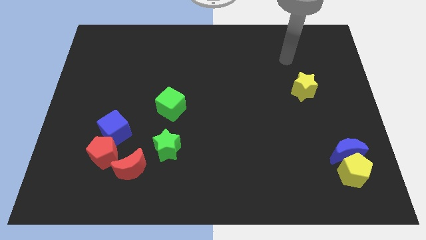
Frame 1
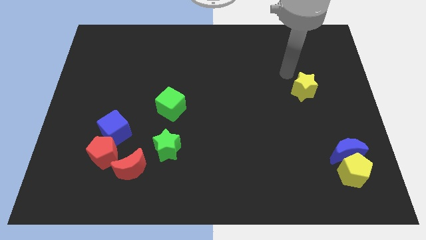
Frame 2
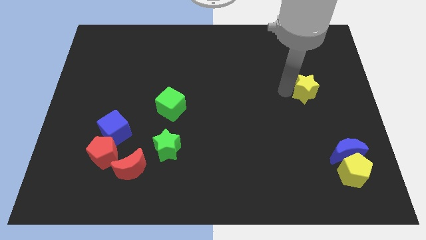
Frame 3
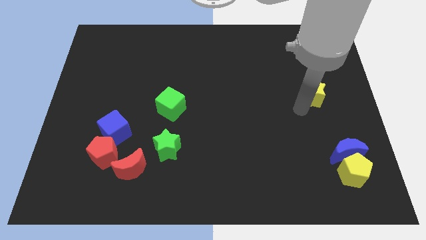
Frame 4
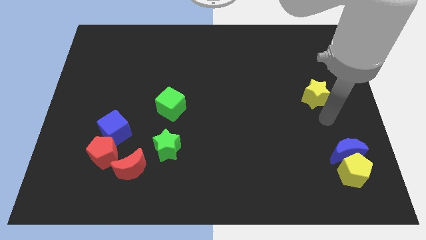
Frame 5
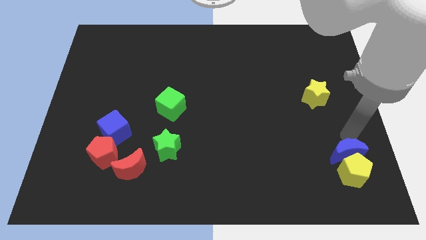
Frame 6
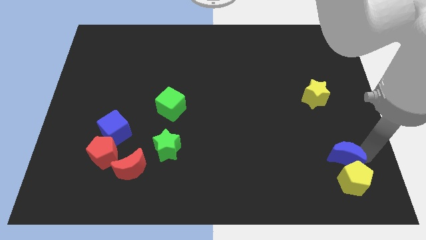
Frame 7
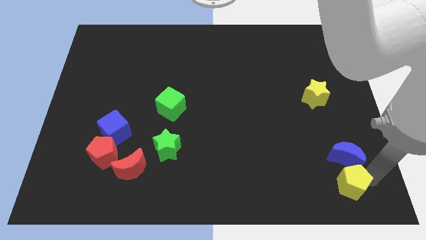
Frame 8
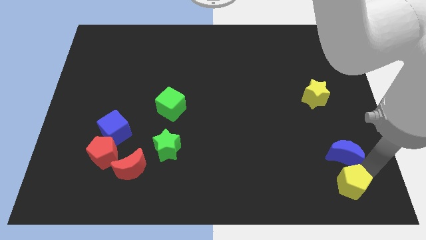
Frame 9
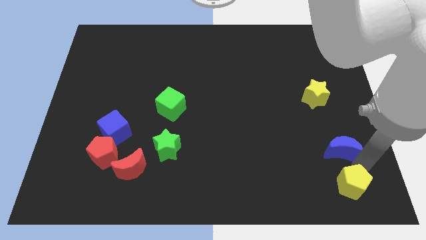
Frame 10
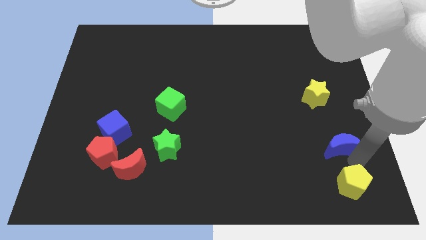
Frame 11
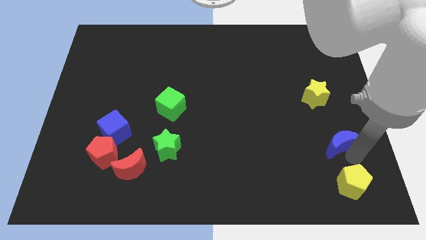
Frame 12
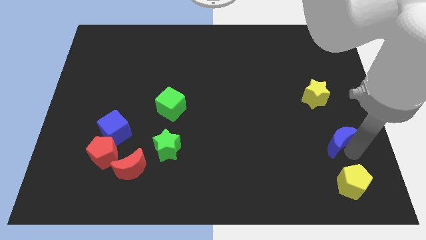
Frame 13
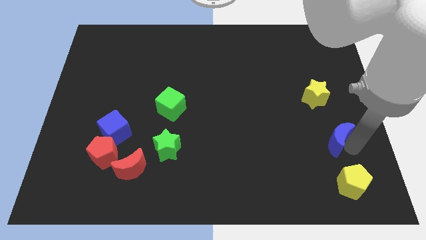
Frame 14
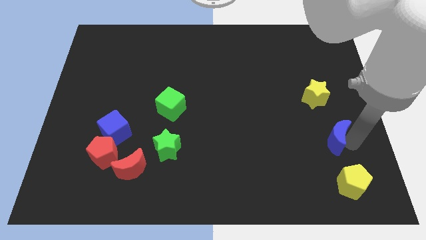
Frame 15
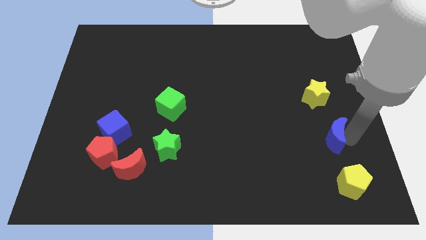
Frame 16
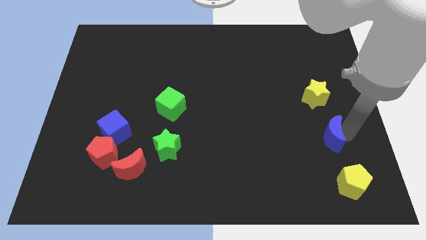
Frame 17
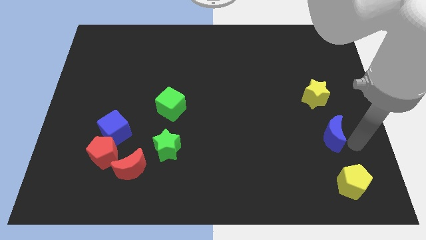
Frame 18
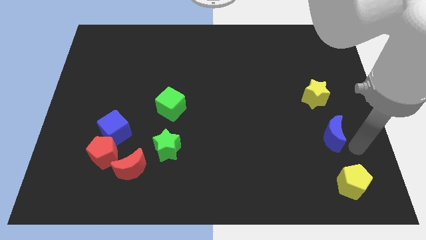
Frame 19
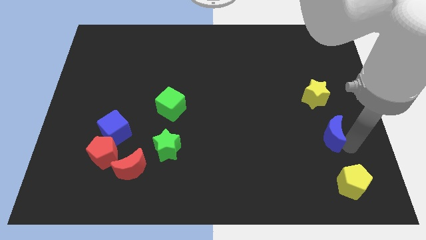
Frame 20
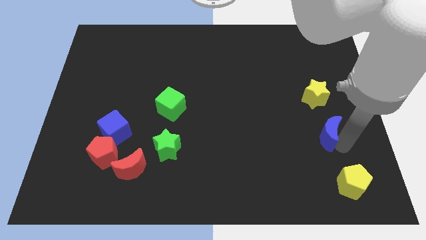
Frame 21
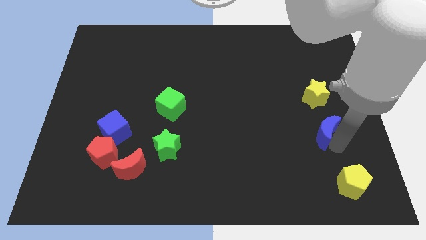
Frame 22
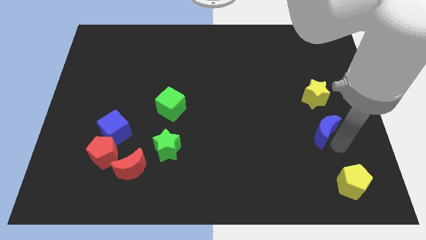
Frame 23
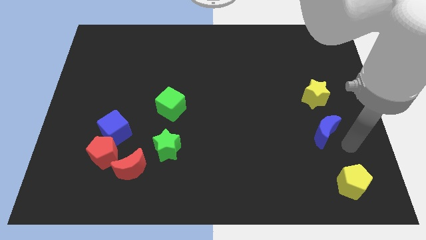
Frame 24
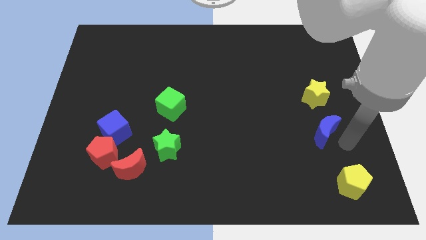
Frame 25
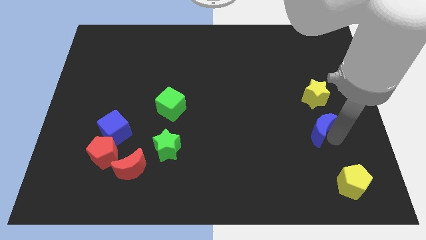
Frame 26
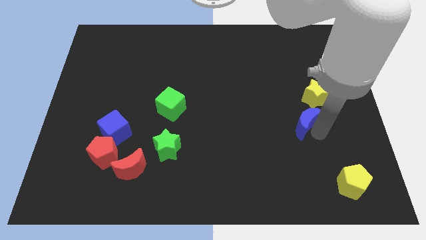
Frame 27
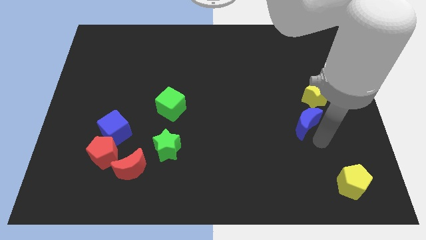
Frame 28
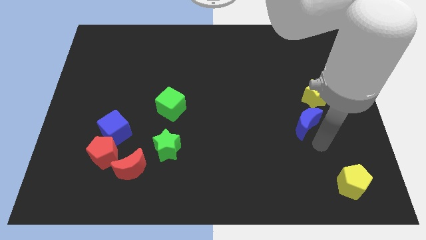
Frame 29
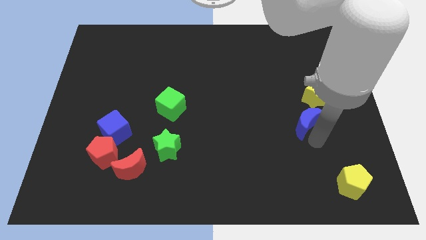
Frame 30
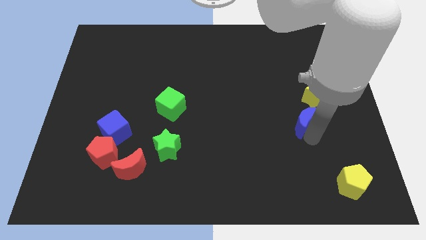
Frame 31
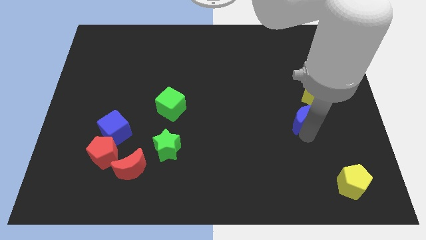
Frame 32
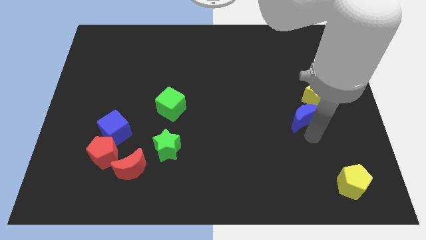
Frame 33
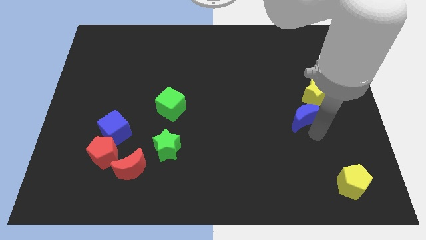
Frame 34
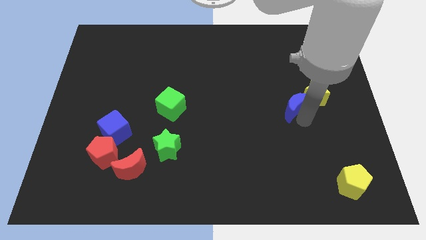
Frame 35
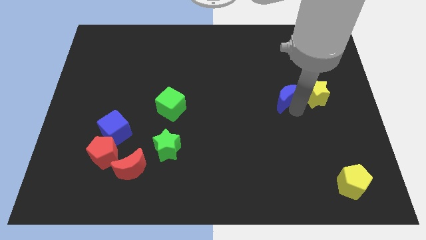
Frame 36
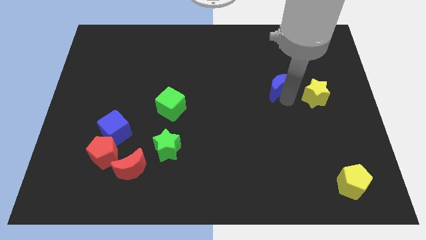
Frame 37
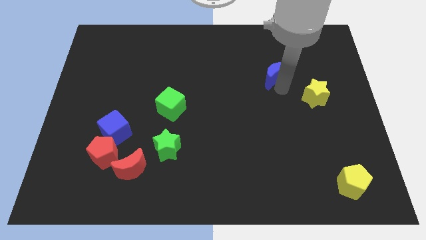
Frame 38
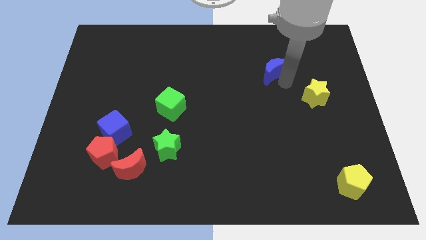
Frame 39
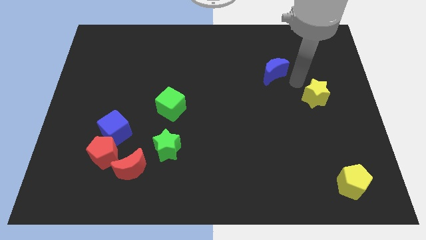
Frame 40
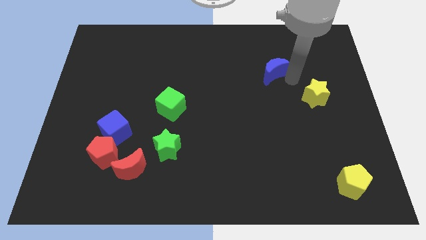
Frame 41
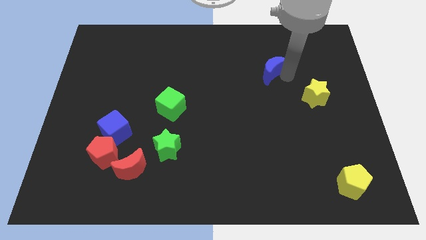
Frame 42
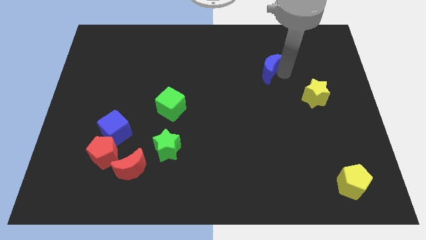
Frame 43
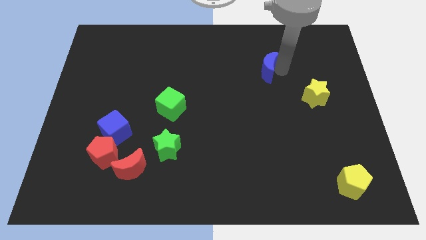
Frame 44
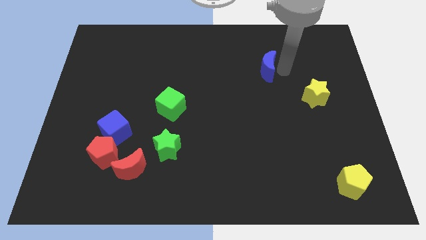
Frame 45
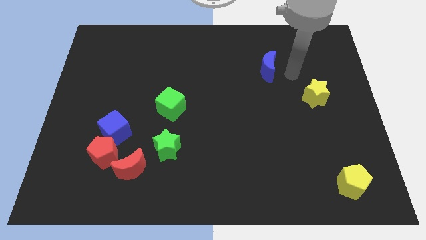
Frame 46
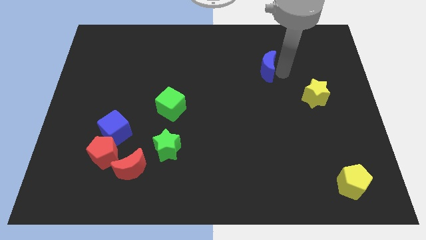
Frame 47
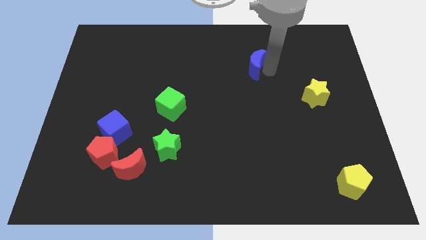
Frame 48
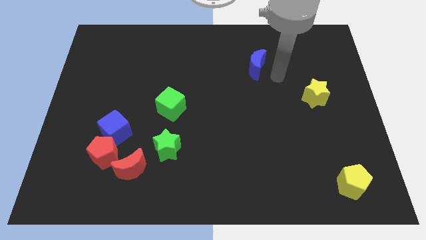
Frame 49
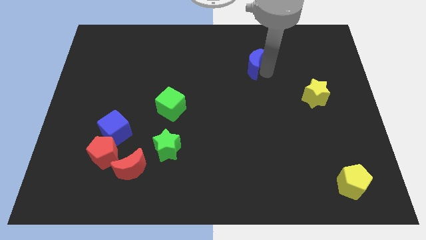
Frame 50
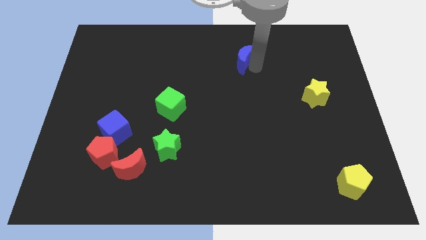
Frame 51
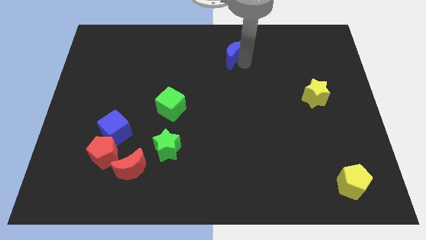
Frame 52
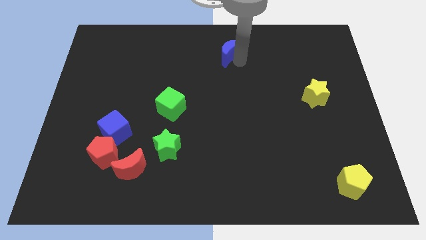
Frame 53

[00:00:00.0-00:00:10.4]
push the blue moon to the top

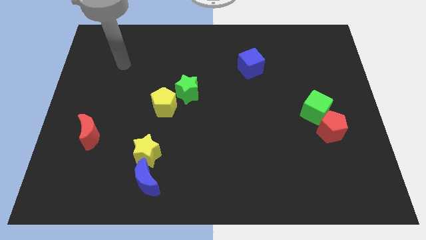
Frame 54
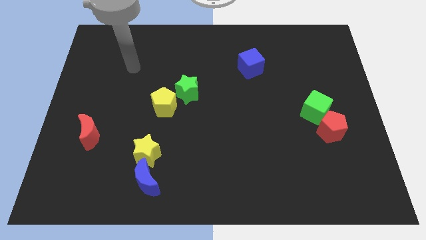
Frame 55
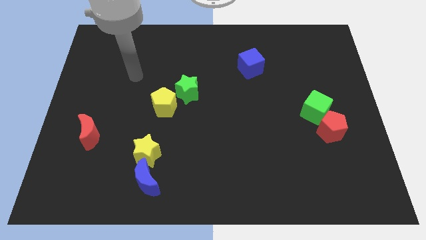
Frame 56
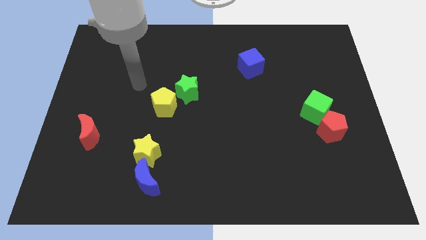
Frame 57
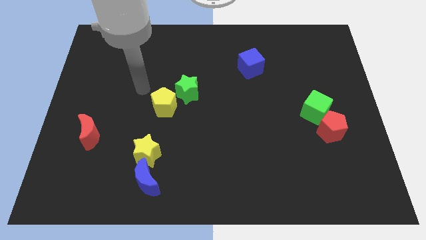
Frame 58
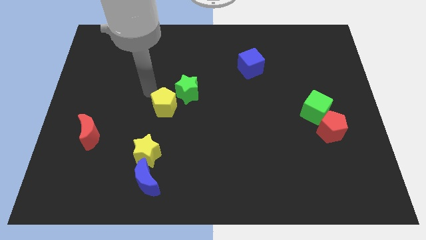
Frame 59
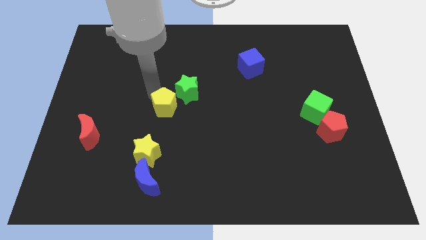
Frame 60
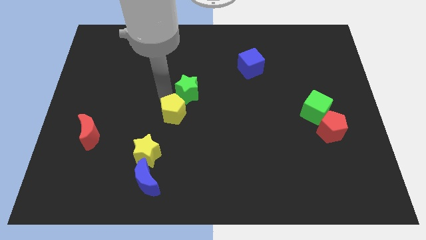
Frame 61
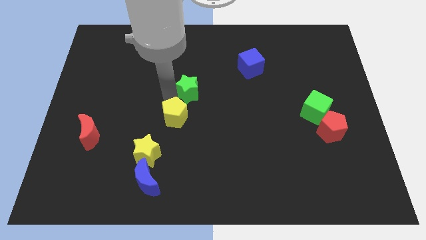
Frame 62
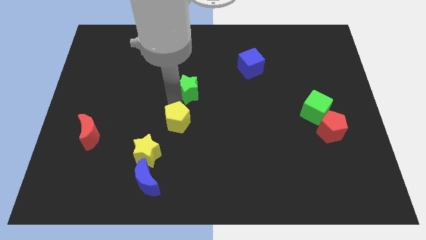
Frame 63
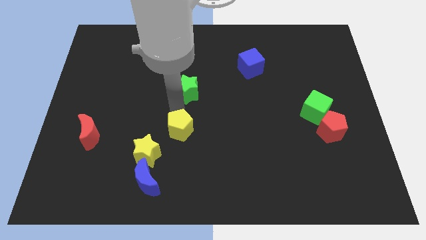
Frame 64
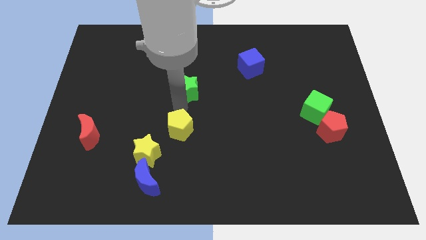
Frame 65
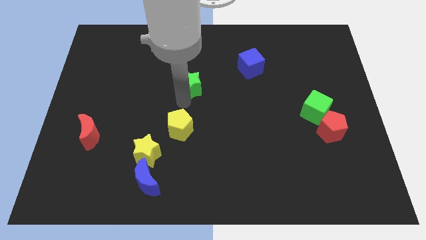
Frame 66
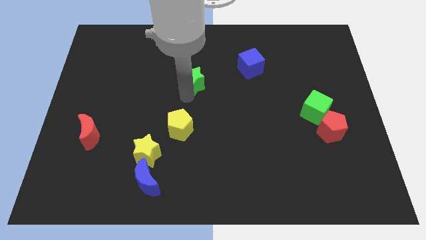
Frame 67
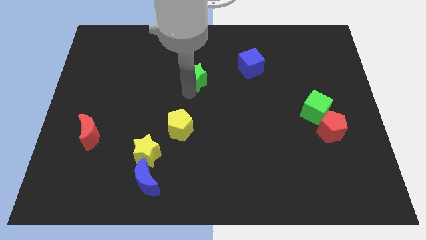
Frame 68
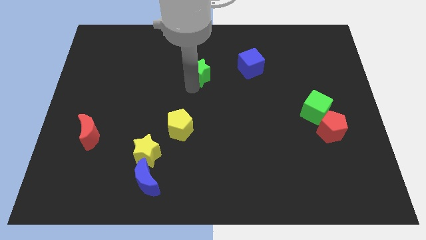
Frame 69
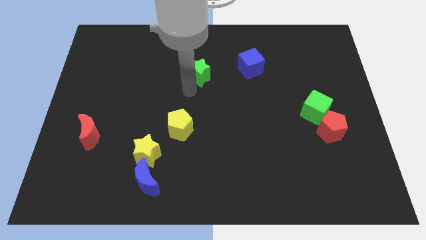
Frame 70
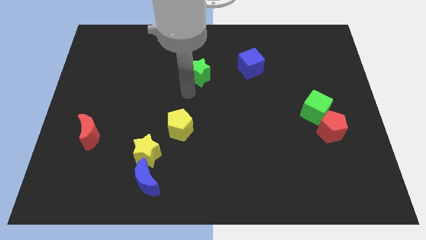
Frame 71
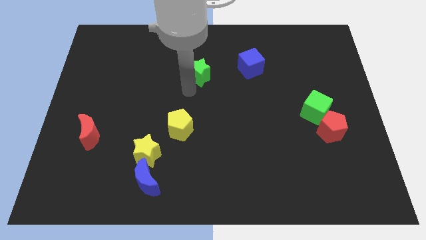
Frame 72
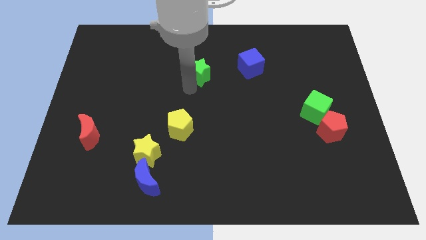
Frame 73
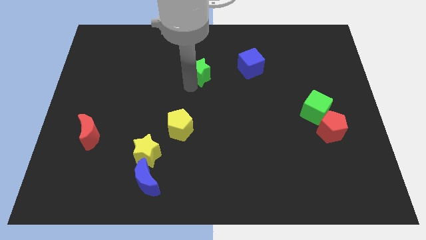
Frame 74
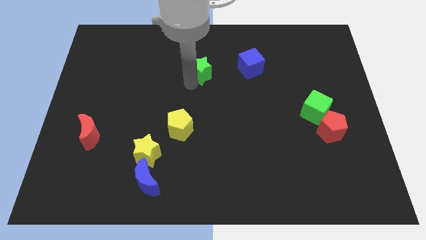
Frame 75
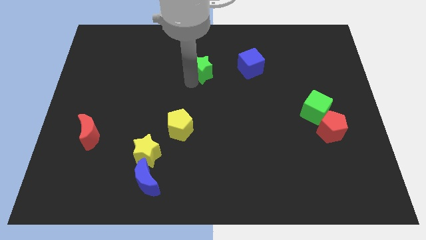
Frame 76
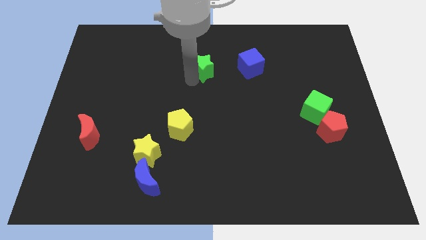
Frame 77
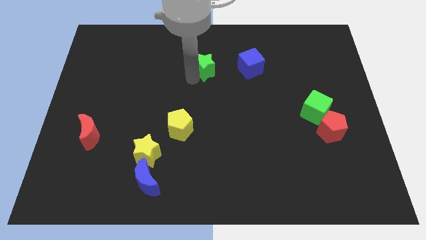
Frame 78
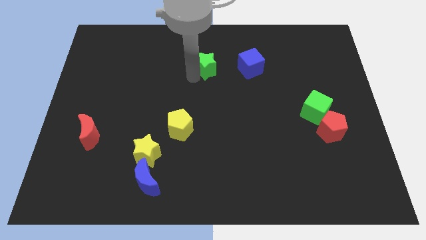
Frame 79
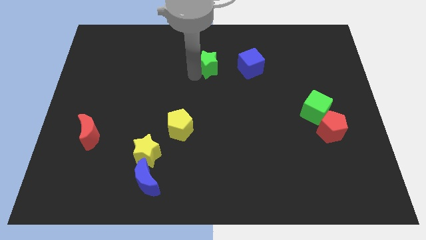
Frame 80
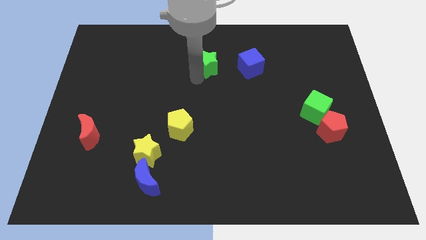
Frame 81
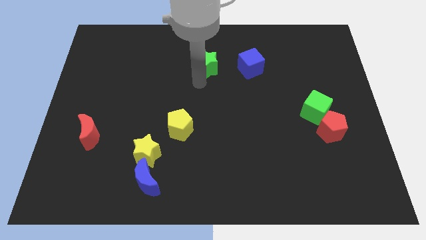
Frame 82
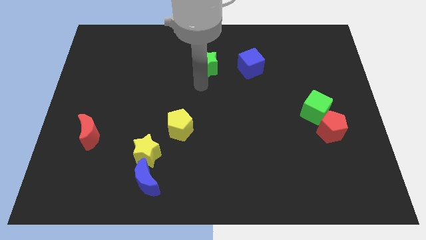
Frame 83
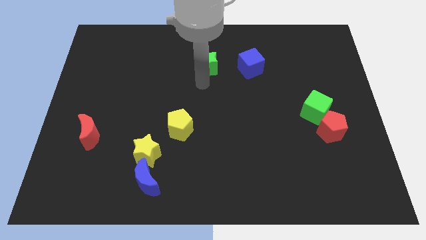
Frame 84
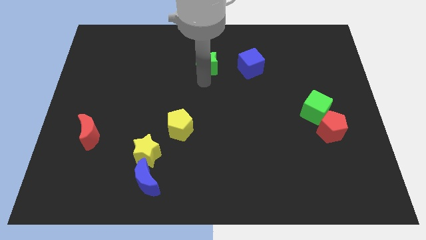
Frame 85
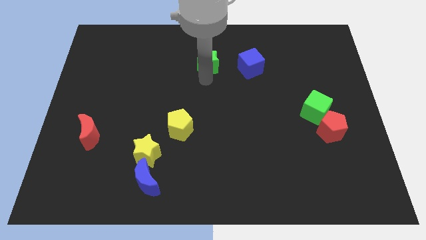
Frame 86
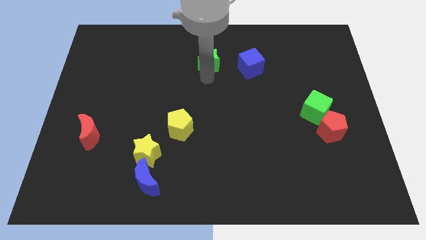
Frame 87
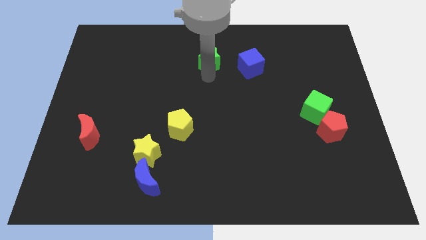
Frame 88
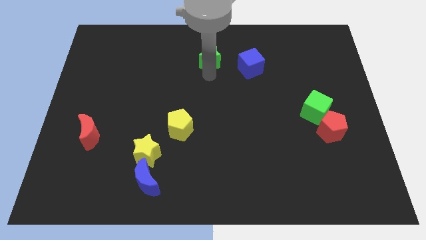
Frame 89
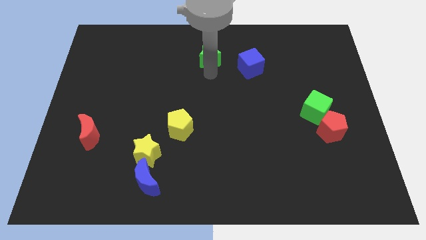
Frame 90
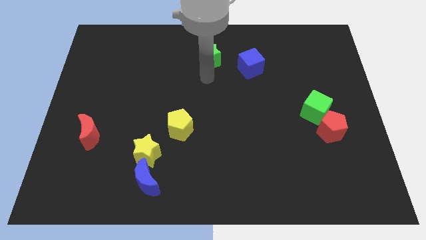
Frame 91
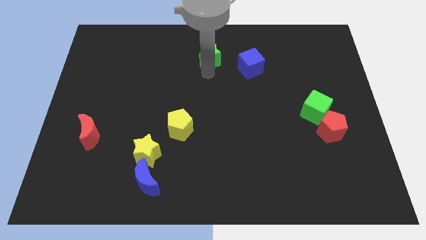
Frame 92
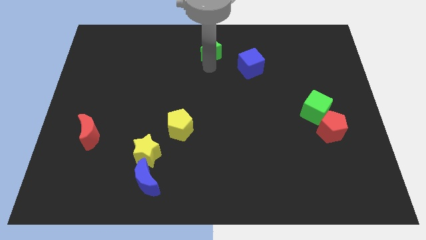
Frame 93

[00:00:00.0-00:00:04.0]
slide the green star to the top side
